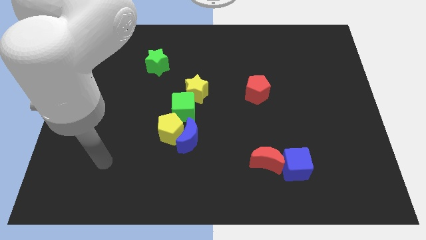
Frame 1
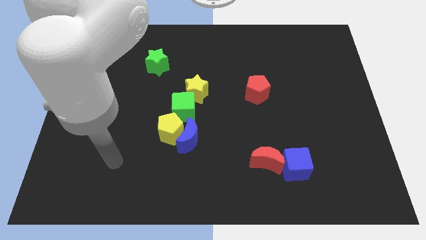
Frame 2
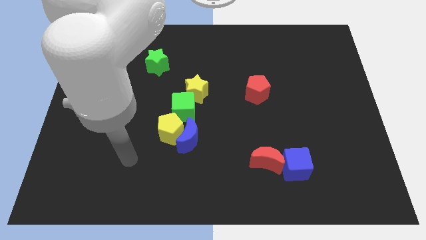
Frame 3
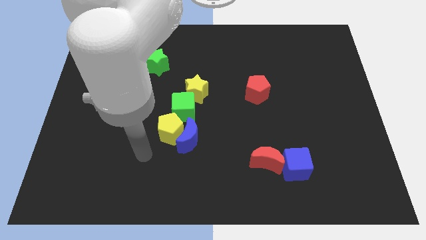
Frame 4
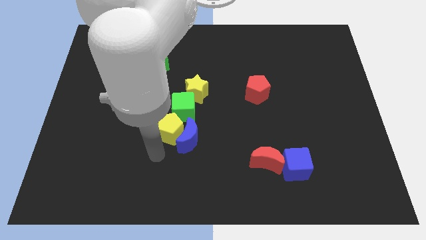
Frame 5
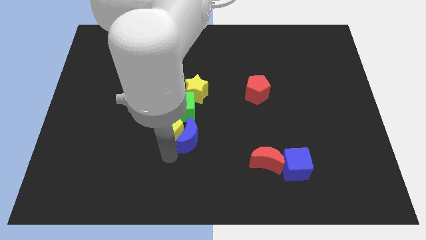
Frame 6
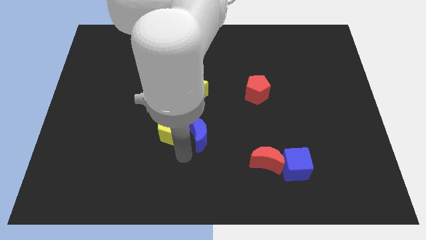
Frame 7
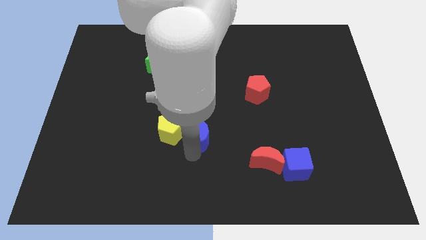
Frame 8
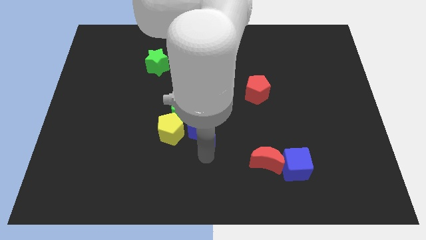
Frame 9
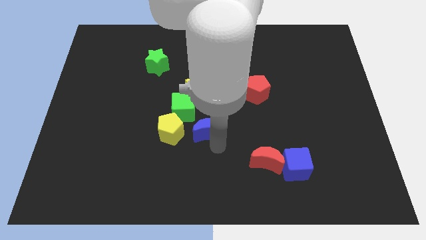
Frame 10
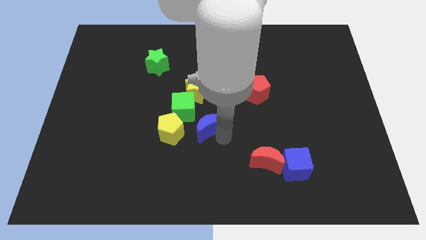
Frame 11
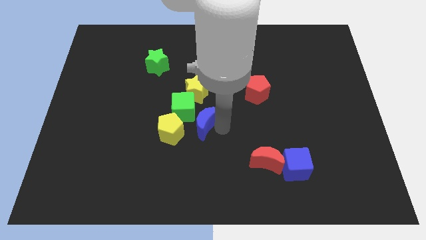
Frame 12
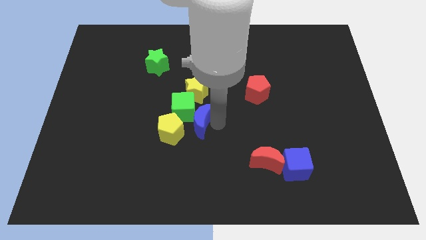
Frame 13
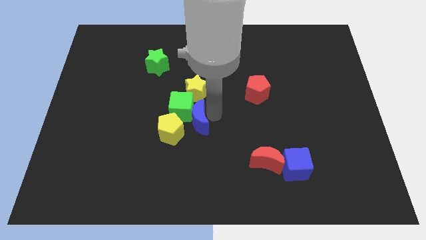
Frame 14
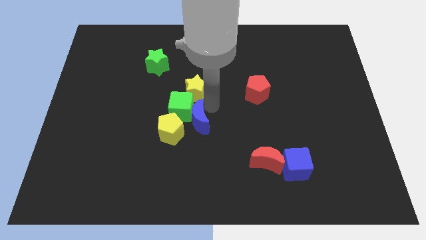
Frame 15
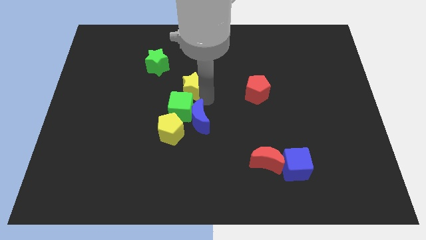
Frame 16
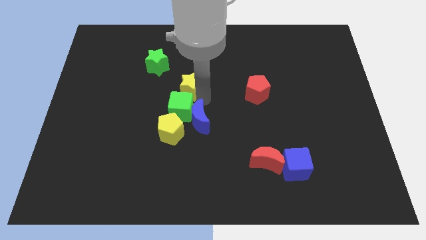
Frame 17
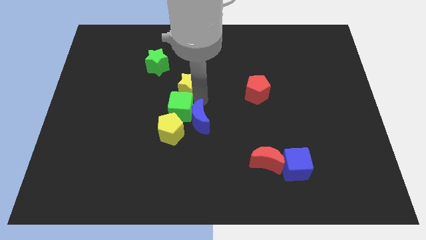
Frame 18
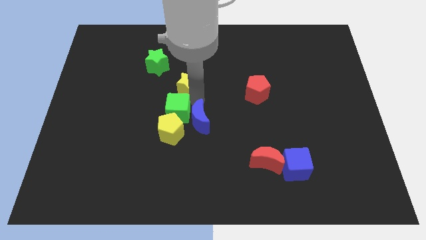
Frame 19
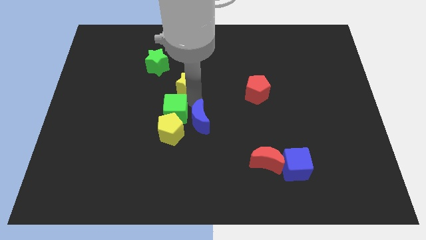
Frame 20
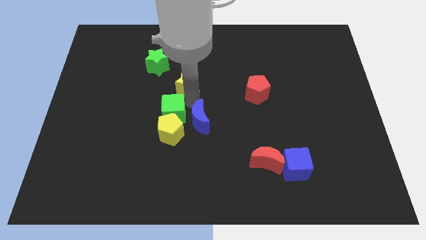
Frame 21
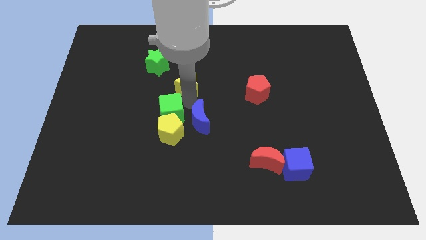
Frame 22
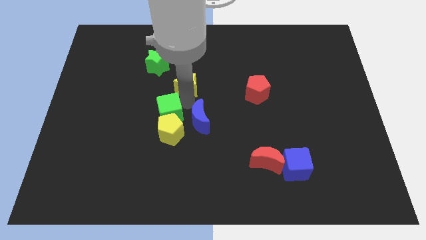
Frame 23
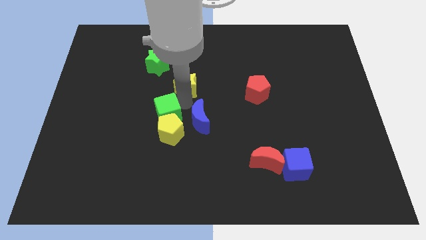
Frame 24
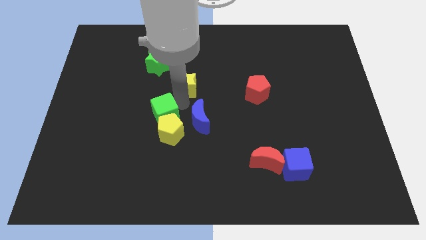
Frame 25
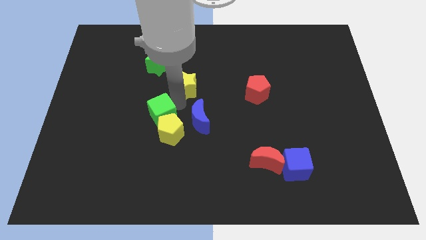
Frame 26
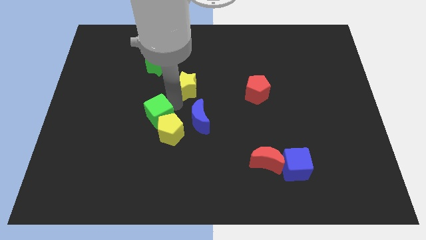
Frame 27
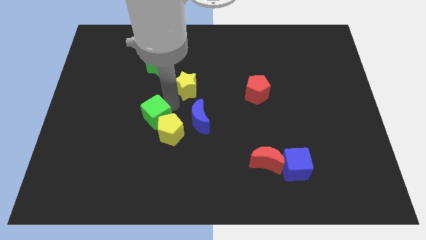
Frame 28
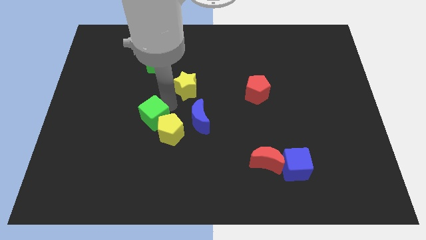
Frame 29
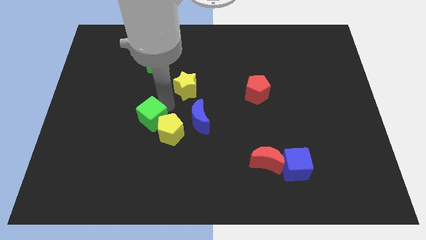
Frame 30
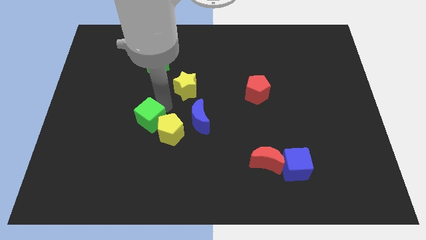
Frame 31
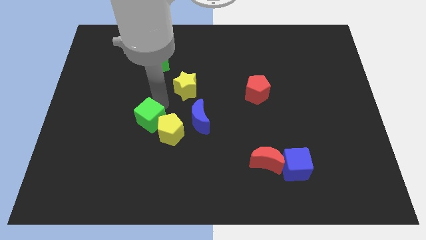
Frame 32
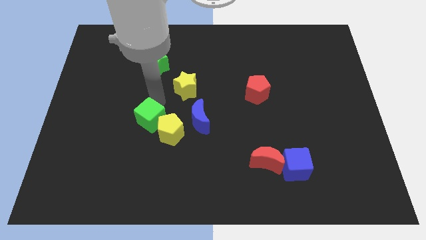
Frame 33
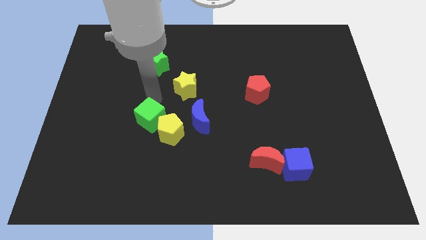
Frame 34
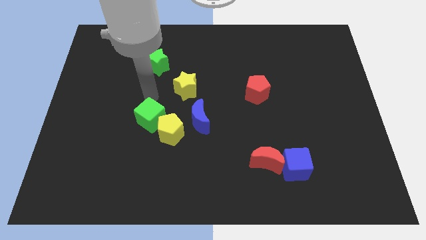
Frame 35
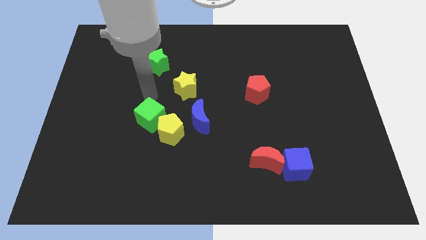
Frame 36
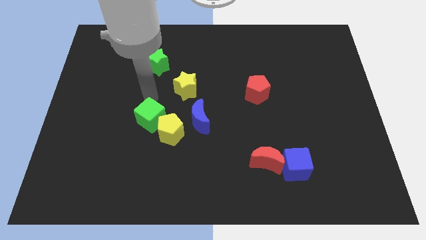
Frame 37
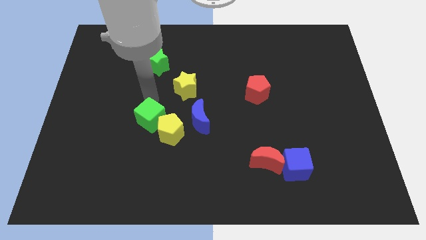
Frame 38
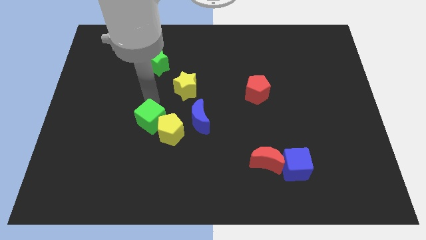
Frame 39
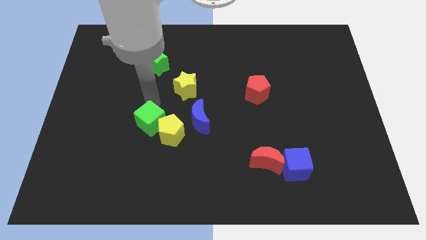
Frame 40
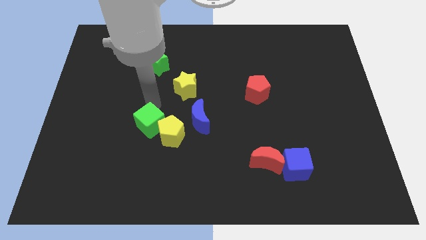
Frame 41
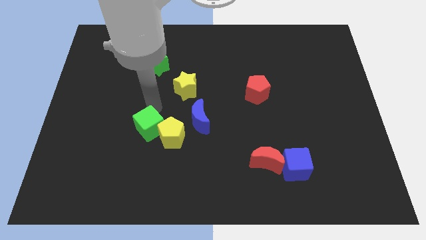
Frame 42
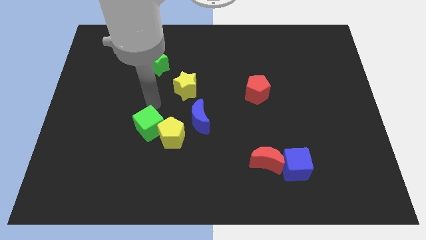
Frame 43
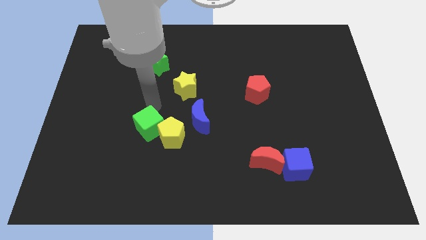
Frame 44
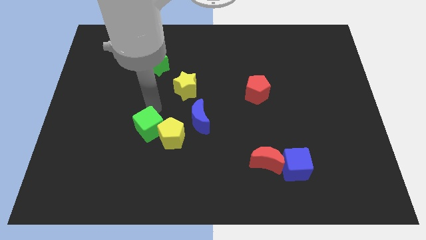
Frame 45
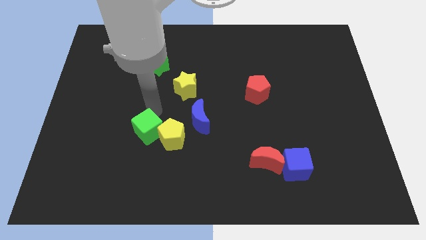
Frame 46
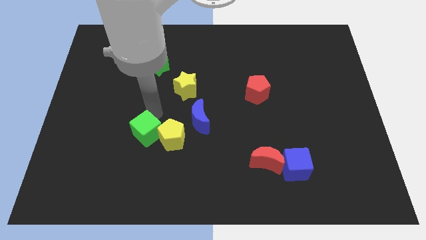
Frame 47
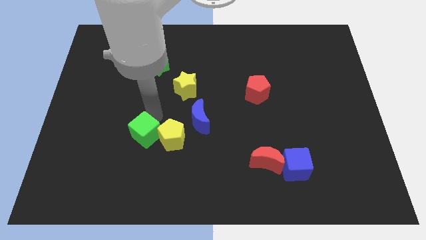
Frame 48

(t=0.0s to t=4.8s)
put the green cube diagonally down and to the left of the yellow pentagon

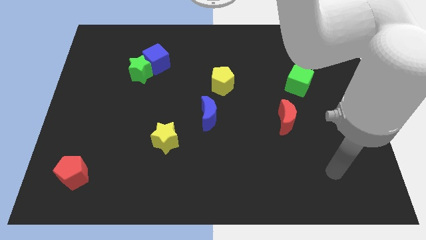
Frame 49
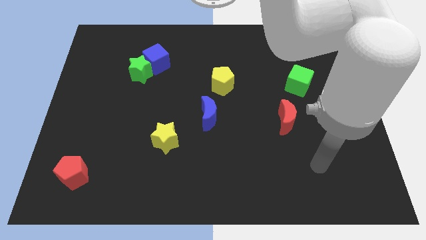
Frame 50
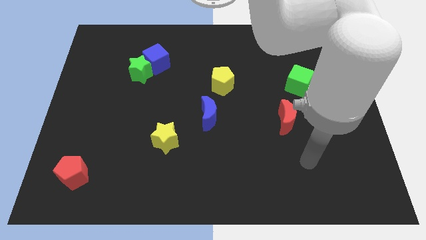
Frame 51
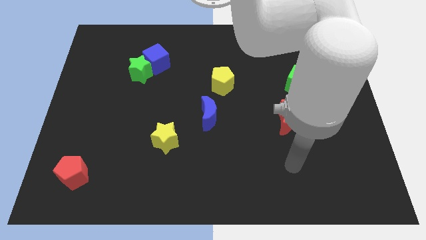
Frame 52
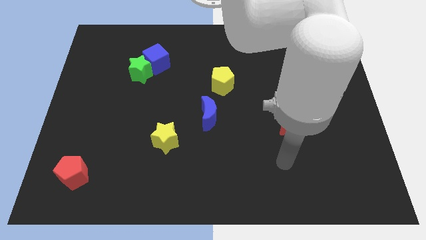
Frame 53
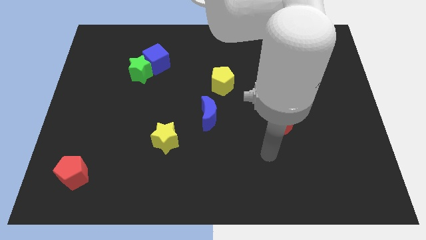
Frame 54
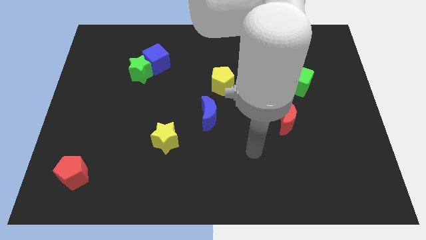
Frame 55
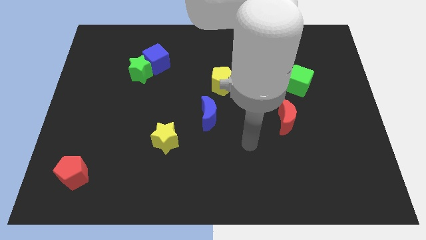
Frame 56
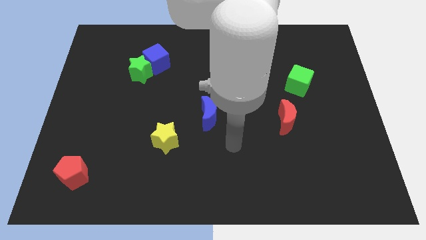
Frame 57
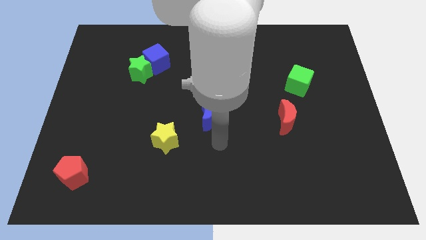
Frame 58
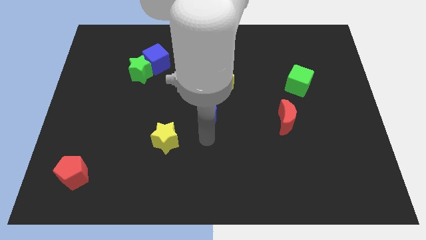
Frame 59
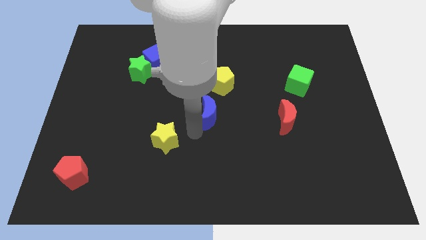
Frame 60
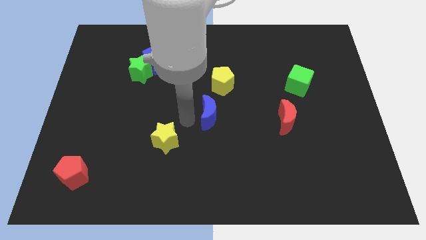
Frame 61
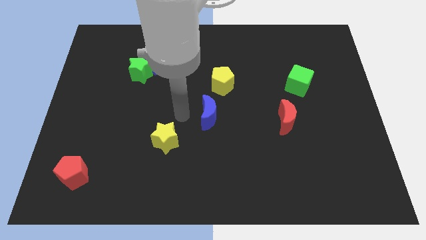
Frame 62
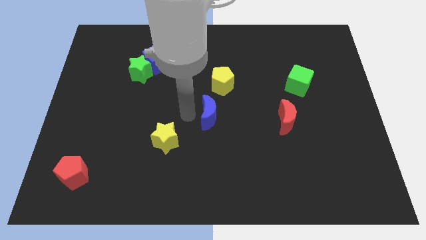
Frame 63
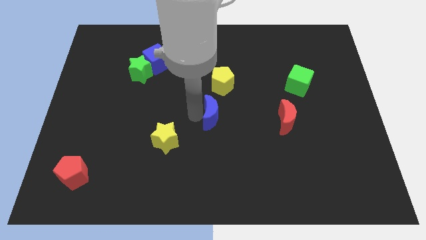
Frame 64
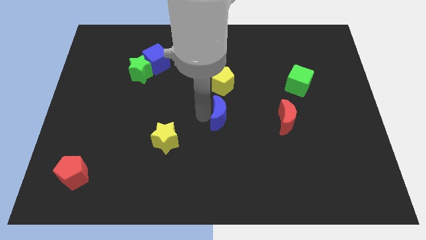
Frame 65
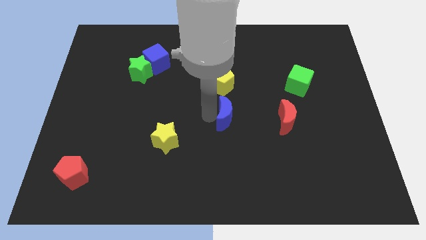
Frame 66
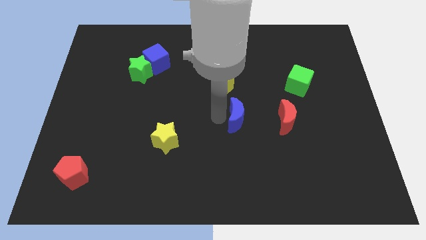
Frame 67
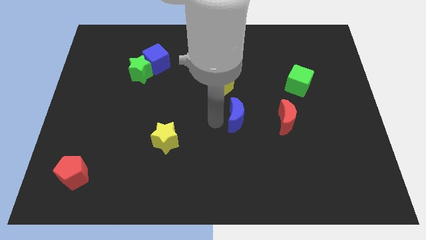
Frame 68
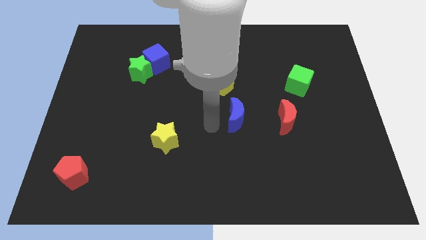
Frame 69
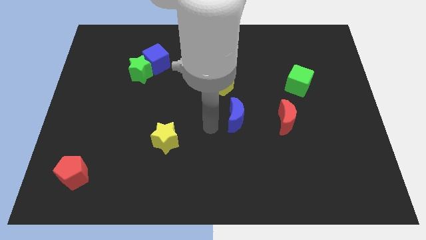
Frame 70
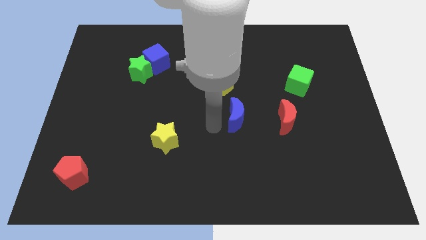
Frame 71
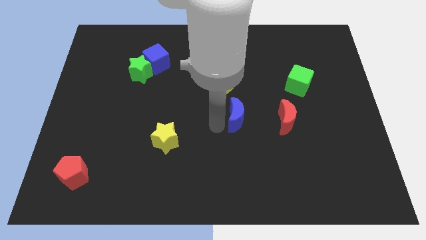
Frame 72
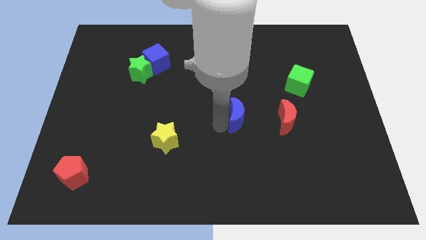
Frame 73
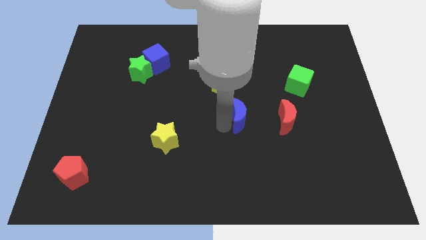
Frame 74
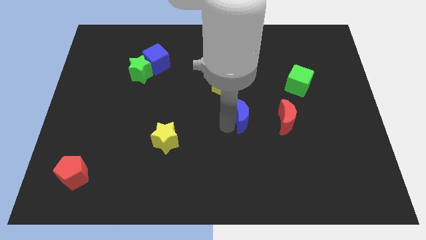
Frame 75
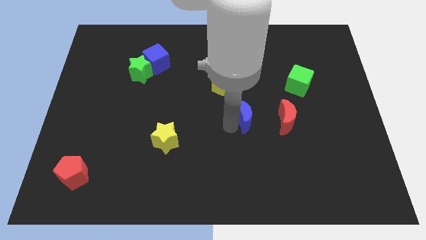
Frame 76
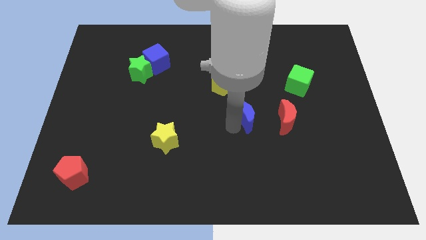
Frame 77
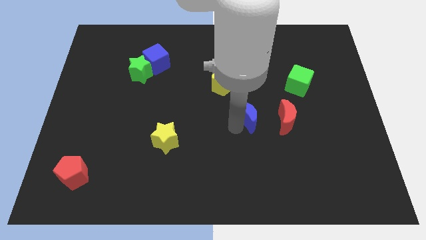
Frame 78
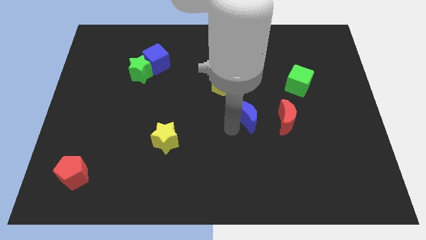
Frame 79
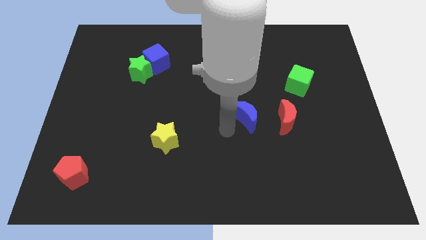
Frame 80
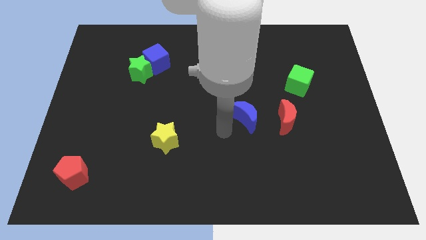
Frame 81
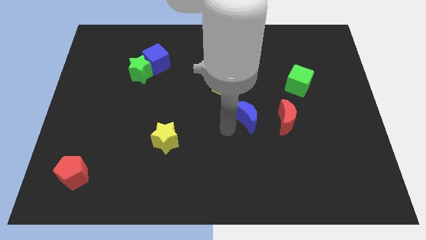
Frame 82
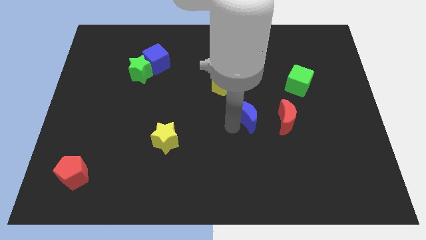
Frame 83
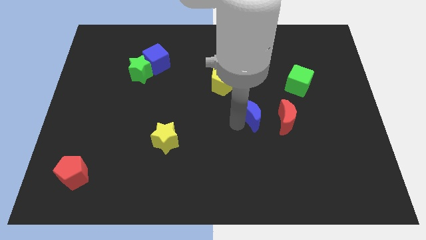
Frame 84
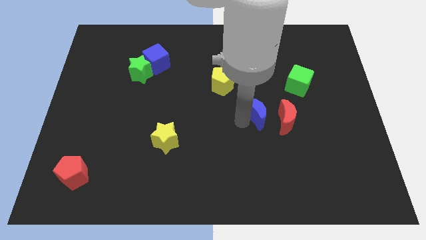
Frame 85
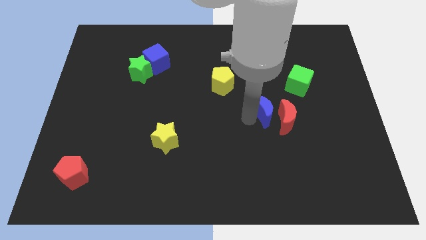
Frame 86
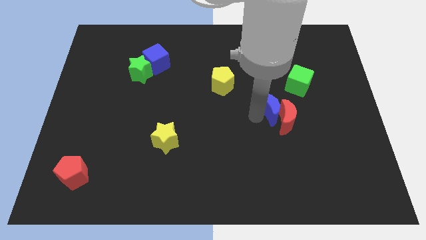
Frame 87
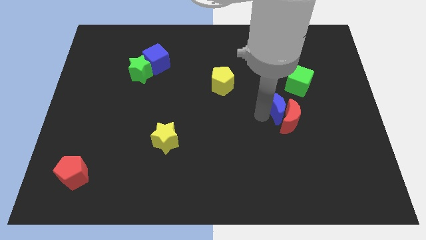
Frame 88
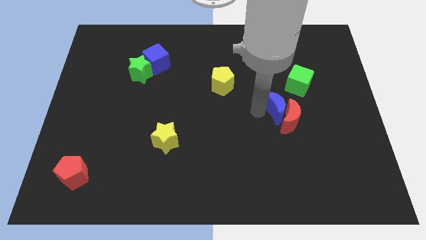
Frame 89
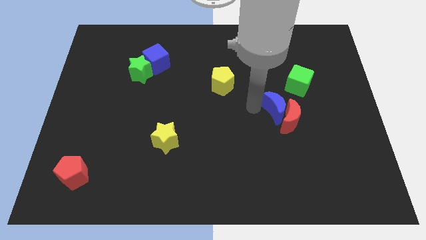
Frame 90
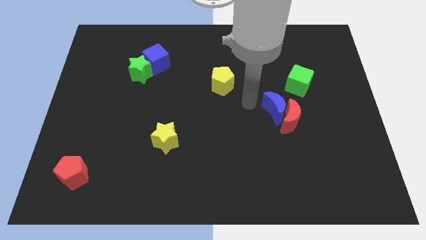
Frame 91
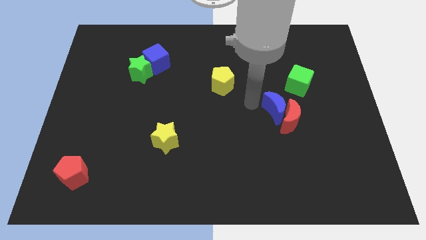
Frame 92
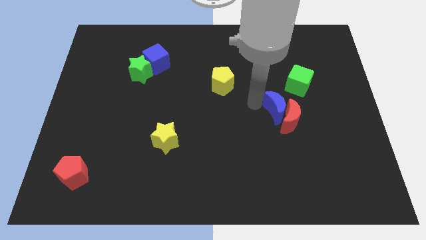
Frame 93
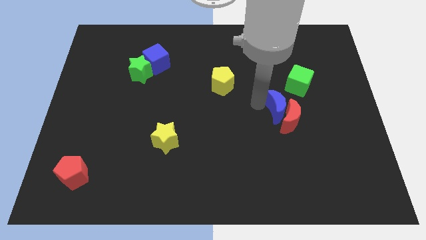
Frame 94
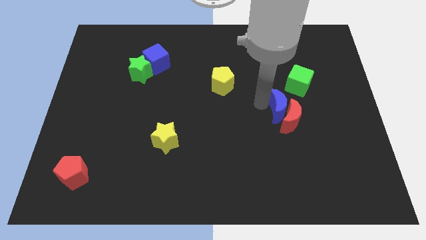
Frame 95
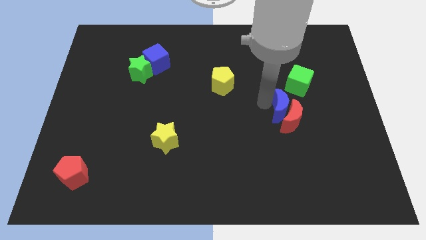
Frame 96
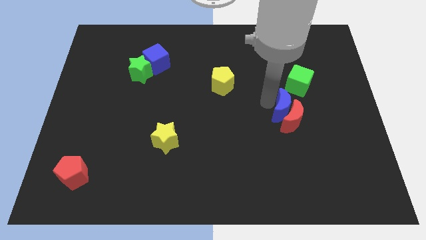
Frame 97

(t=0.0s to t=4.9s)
push the blue moon below the green cube
